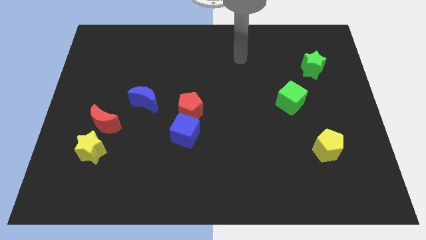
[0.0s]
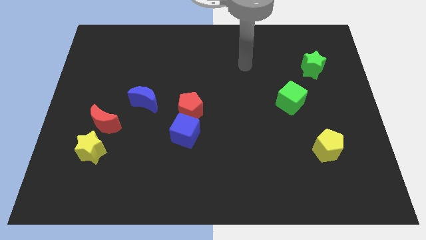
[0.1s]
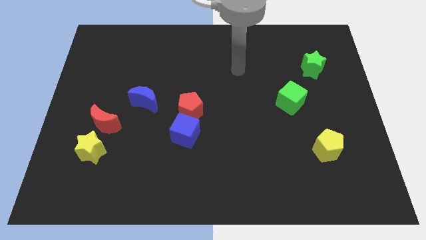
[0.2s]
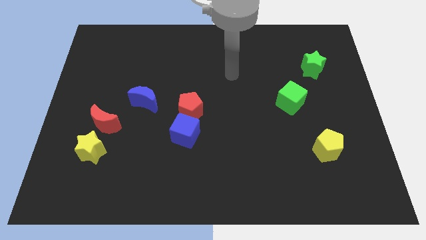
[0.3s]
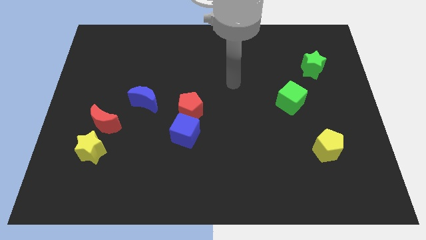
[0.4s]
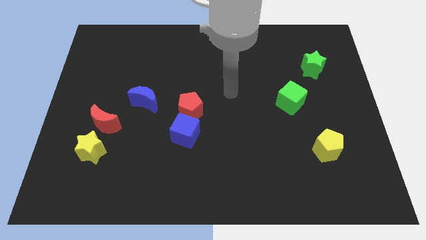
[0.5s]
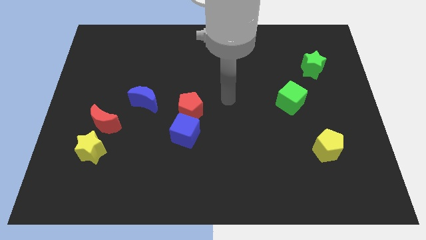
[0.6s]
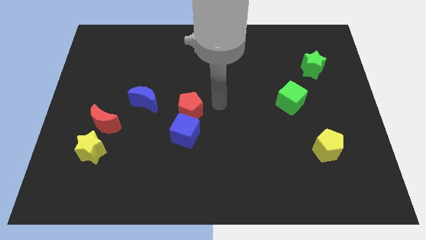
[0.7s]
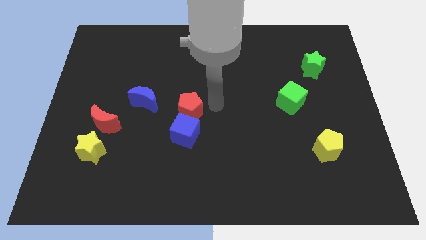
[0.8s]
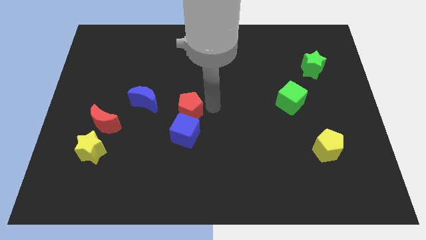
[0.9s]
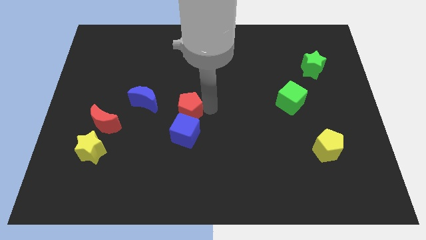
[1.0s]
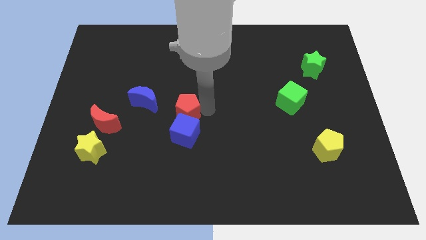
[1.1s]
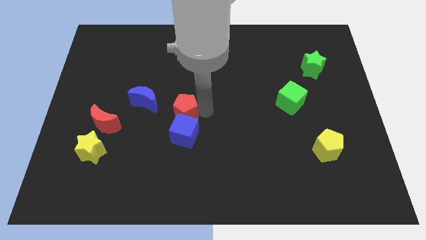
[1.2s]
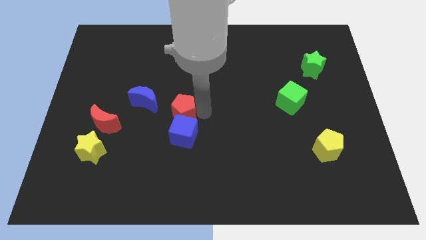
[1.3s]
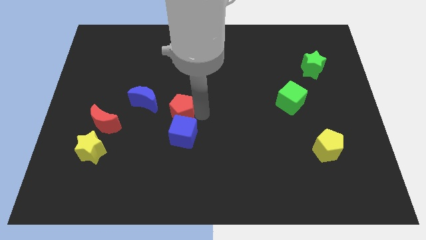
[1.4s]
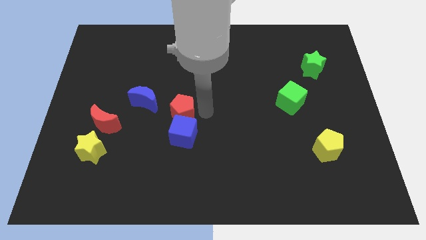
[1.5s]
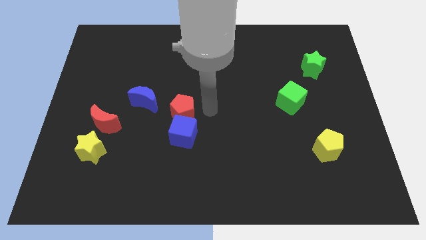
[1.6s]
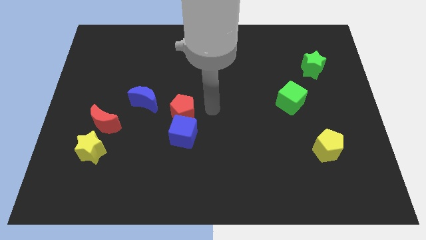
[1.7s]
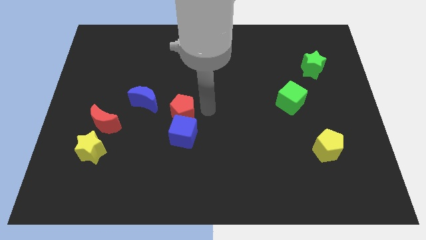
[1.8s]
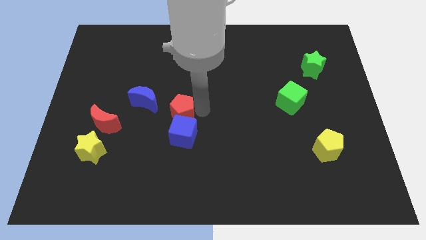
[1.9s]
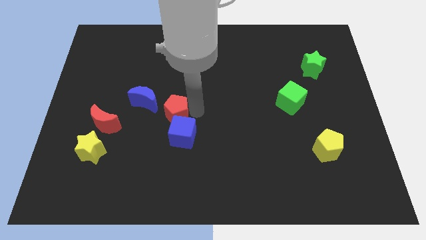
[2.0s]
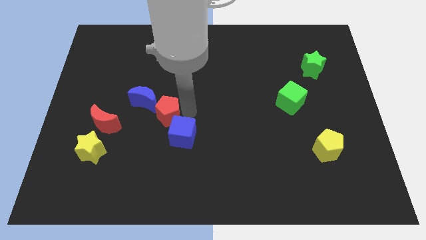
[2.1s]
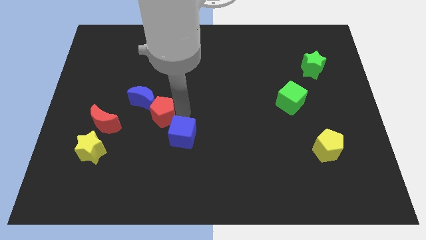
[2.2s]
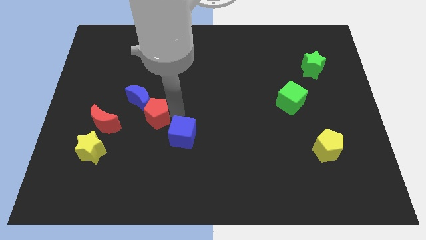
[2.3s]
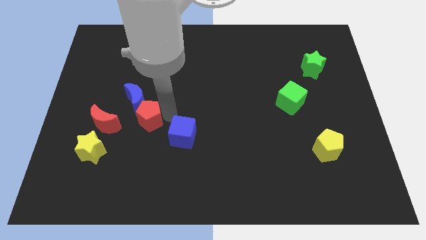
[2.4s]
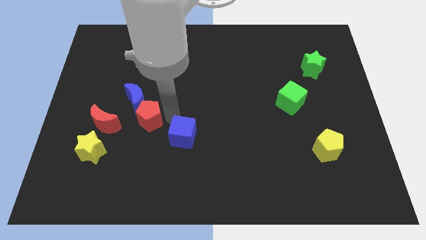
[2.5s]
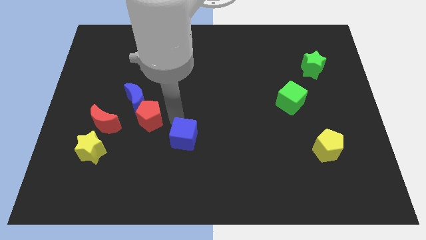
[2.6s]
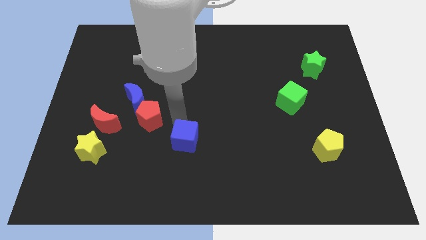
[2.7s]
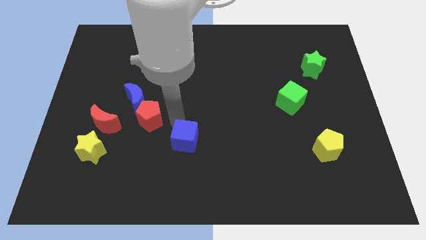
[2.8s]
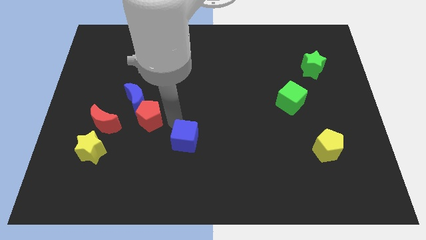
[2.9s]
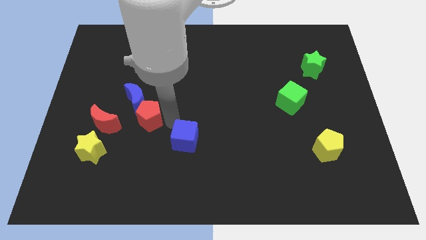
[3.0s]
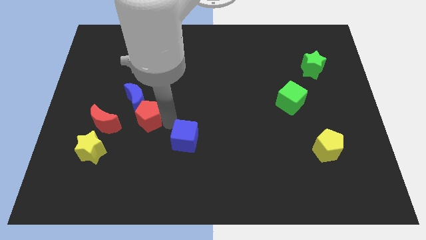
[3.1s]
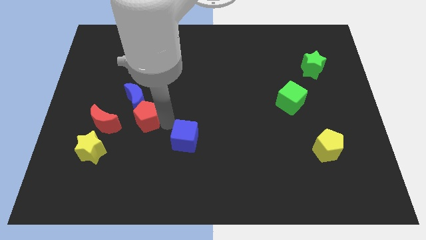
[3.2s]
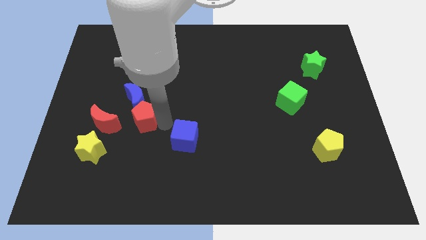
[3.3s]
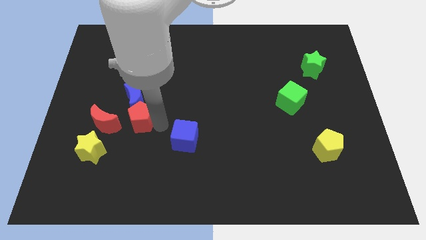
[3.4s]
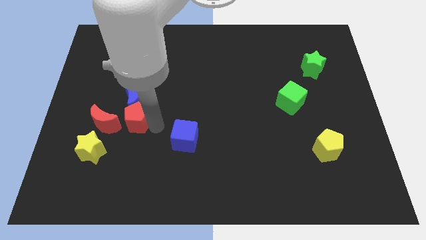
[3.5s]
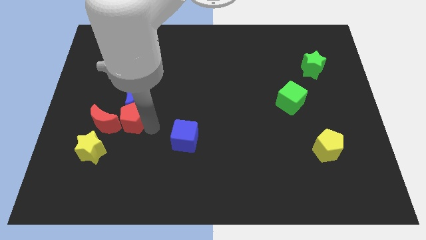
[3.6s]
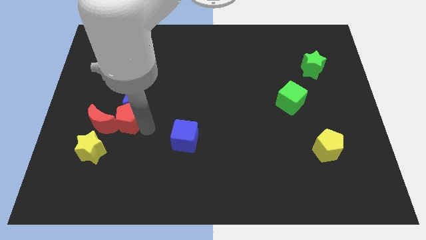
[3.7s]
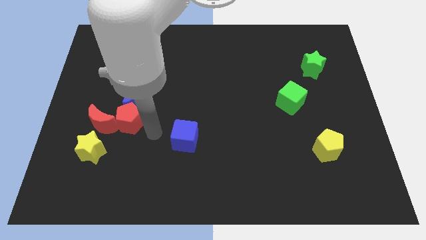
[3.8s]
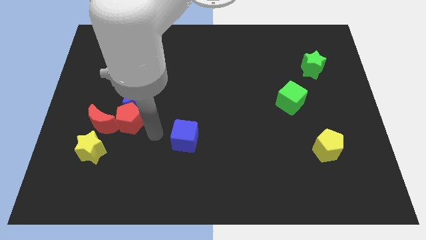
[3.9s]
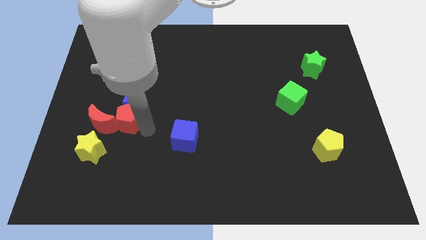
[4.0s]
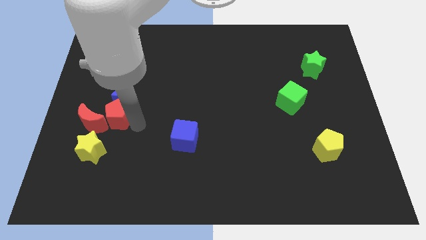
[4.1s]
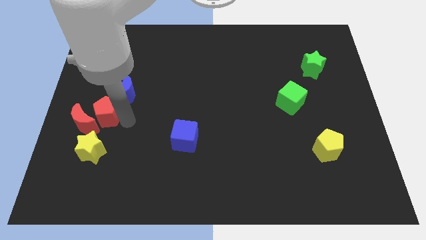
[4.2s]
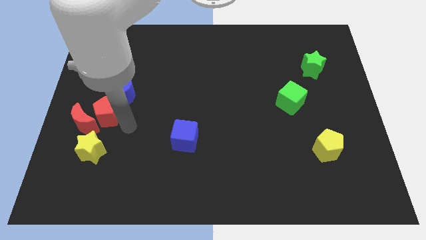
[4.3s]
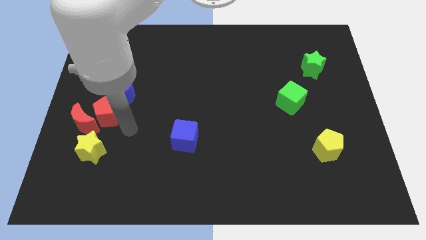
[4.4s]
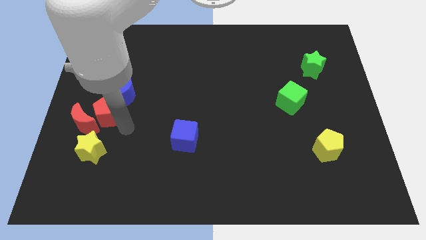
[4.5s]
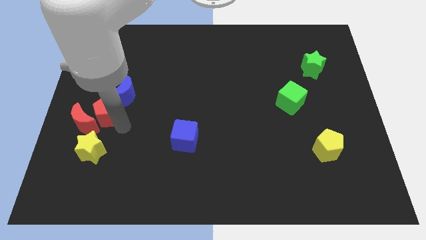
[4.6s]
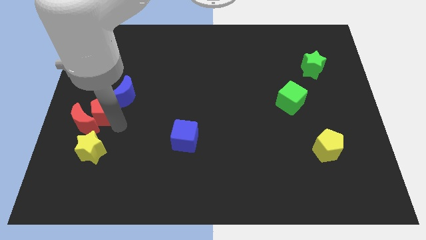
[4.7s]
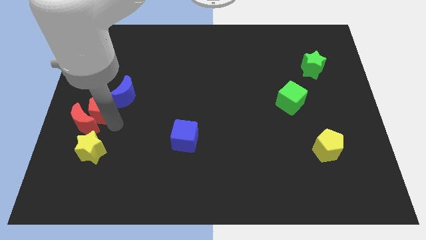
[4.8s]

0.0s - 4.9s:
slide the red pentagon to the left of the blue moon
